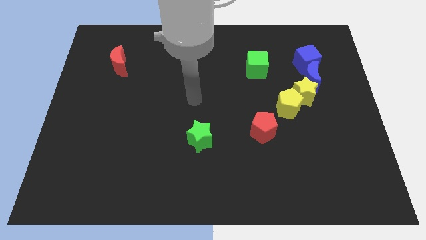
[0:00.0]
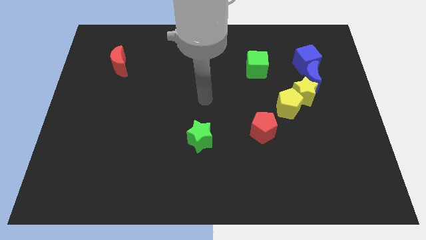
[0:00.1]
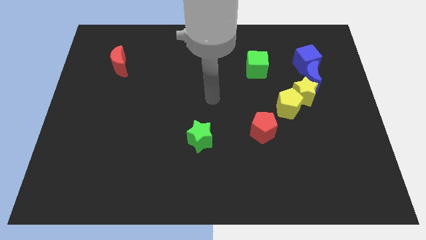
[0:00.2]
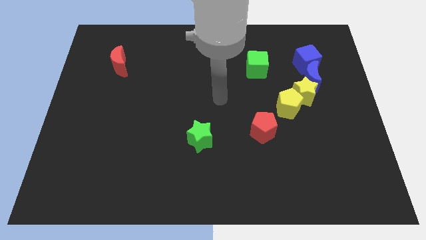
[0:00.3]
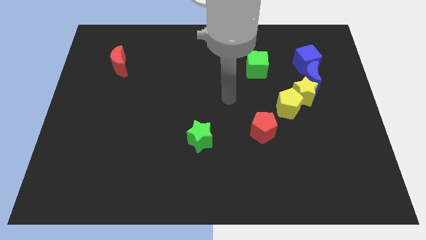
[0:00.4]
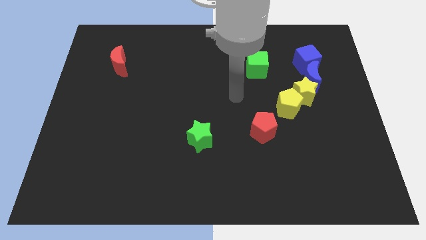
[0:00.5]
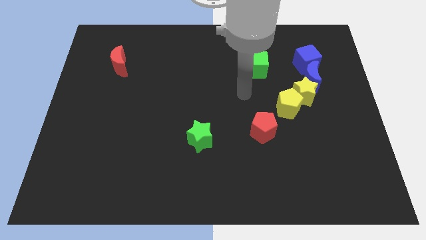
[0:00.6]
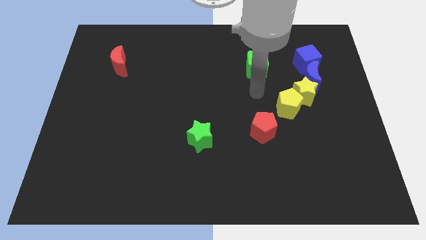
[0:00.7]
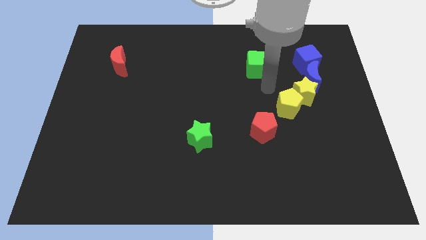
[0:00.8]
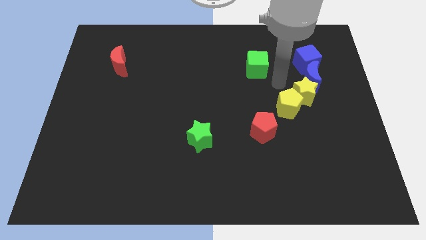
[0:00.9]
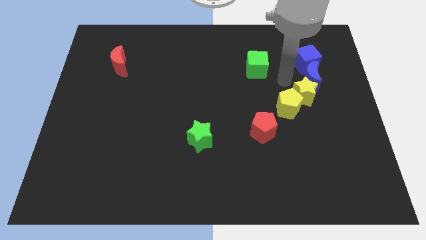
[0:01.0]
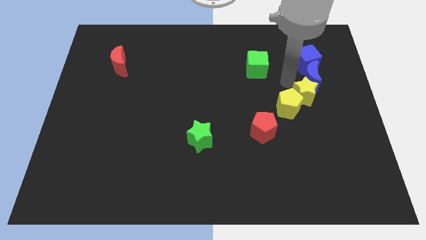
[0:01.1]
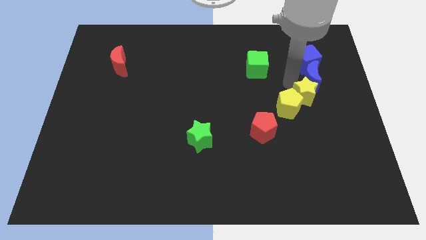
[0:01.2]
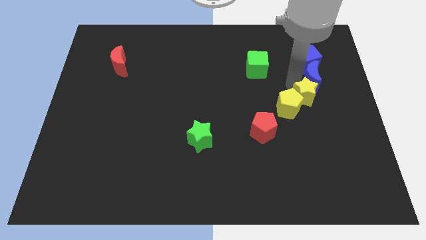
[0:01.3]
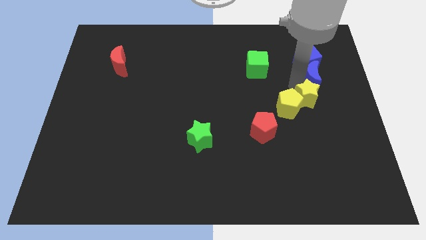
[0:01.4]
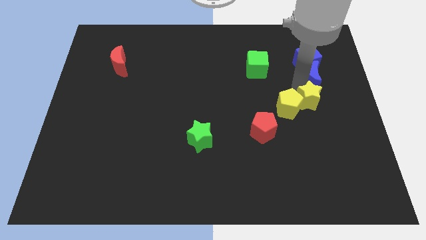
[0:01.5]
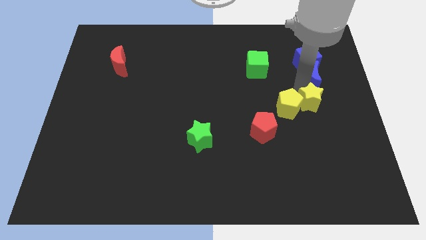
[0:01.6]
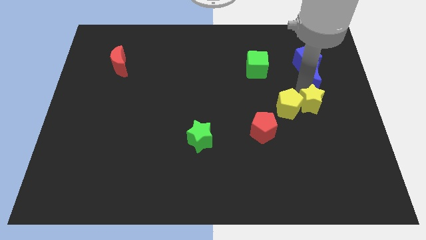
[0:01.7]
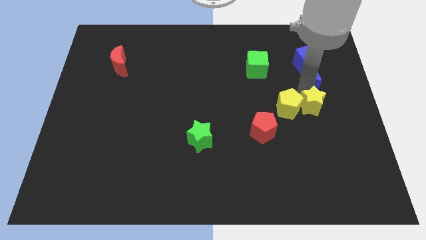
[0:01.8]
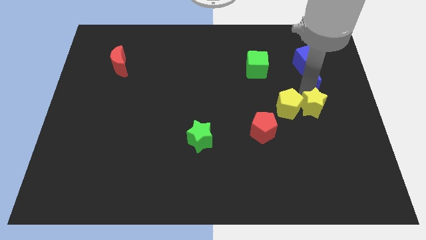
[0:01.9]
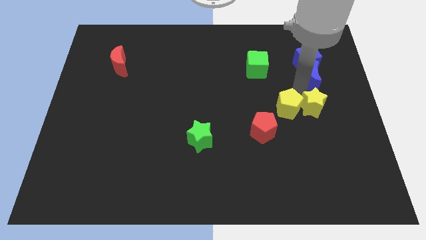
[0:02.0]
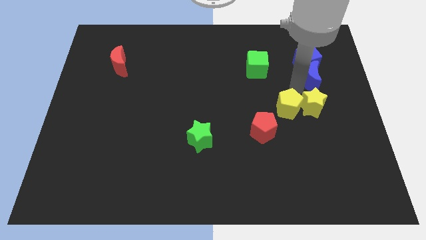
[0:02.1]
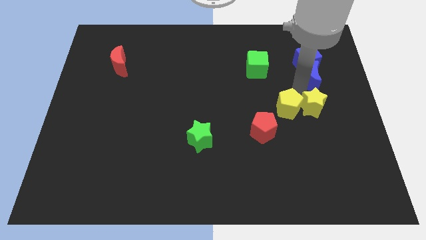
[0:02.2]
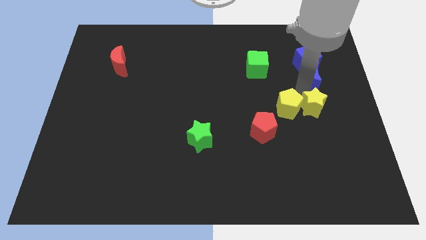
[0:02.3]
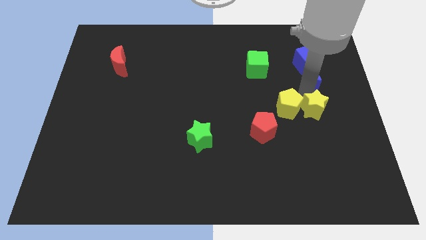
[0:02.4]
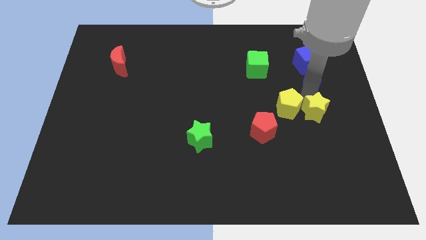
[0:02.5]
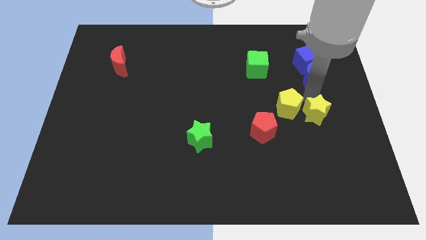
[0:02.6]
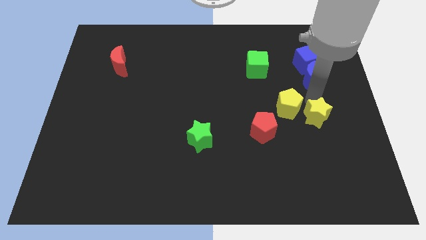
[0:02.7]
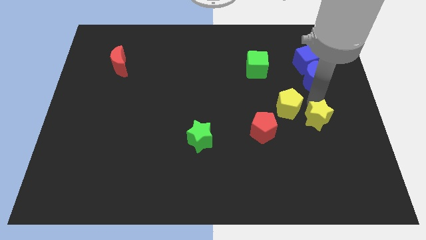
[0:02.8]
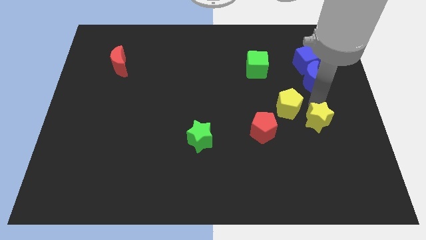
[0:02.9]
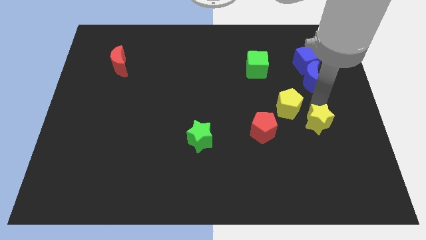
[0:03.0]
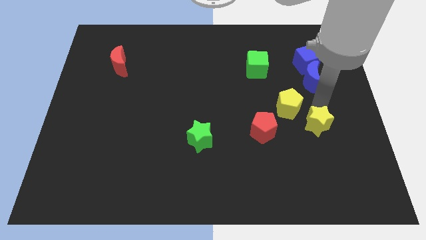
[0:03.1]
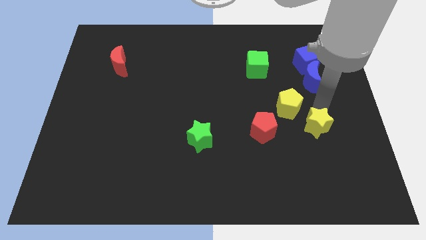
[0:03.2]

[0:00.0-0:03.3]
separate the yellow star from the yellow pentagon and blue moon

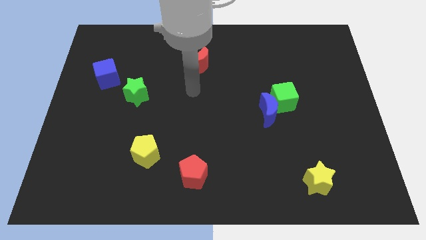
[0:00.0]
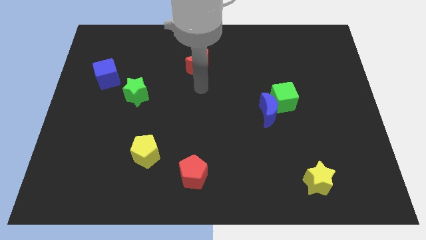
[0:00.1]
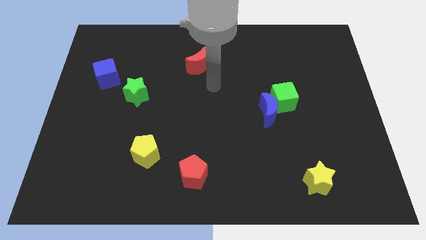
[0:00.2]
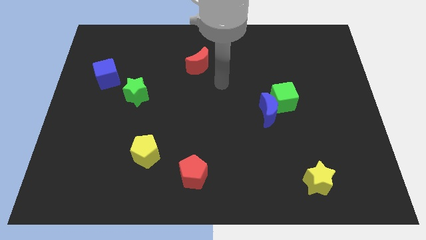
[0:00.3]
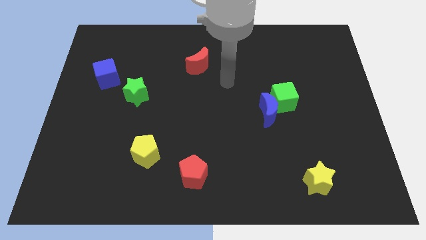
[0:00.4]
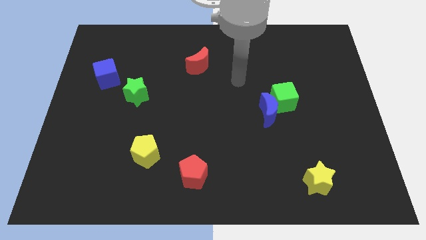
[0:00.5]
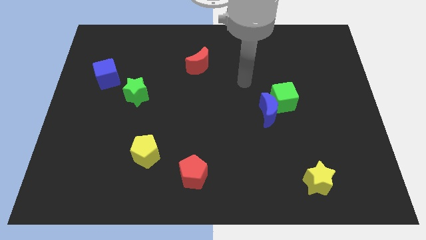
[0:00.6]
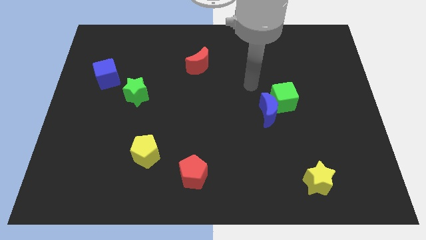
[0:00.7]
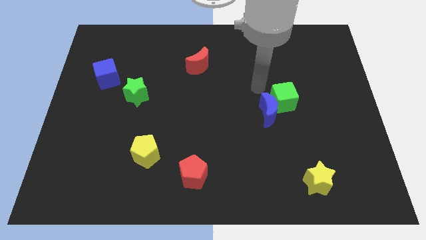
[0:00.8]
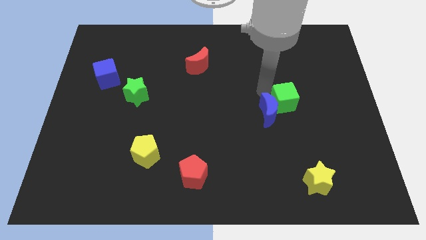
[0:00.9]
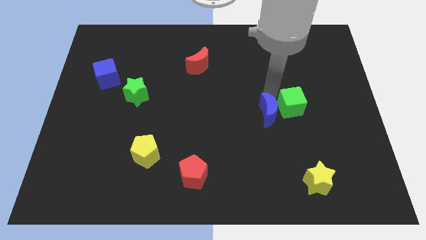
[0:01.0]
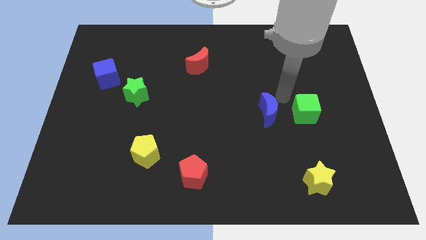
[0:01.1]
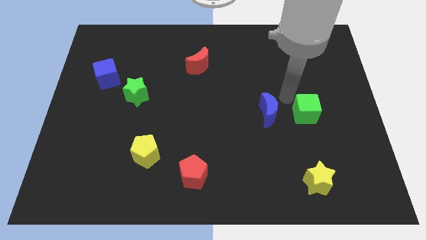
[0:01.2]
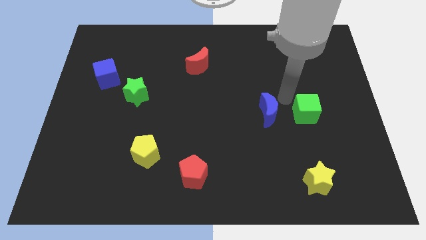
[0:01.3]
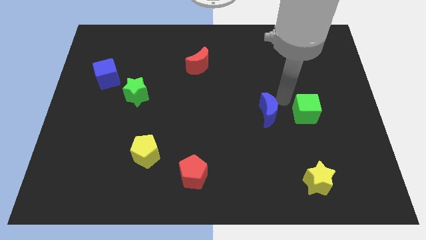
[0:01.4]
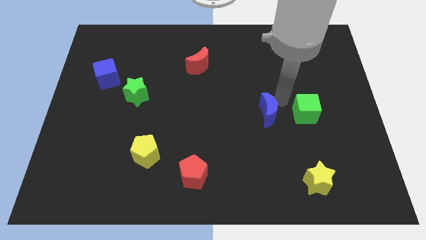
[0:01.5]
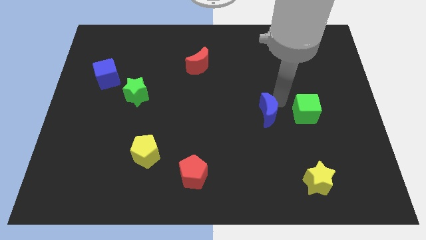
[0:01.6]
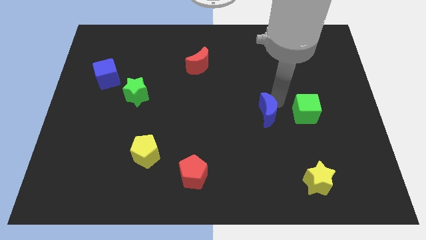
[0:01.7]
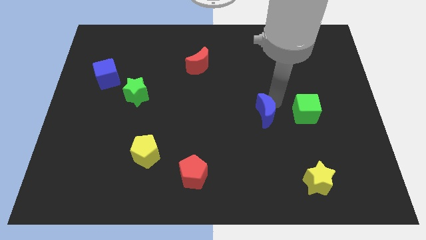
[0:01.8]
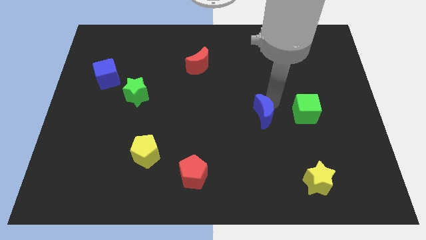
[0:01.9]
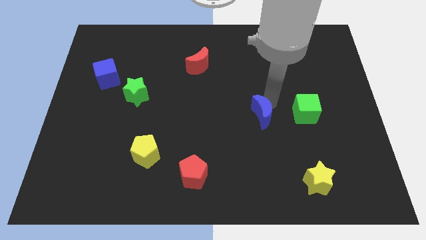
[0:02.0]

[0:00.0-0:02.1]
separate the blue moon from the green cube

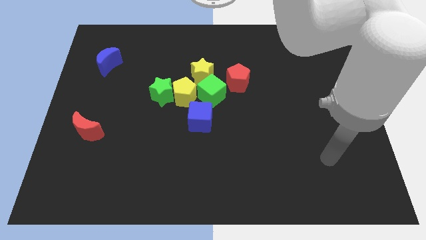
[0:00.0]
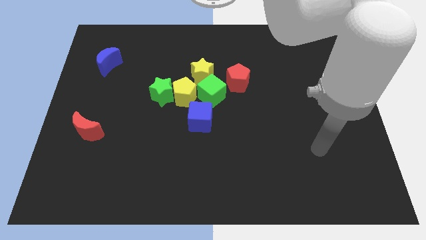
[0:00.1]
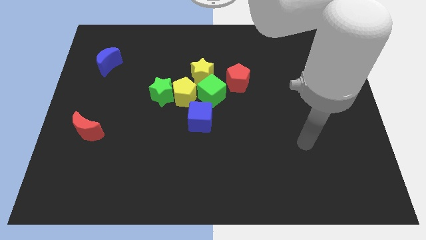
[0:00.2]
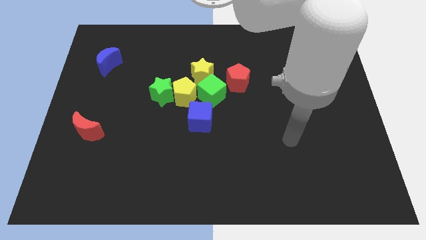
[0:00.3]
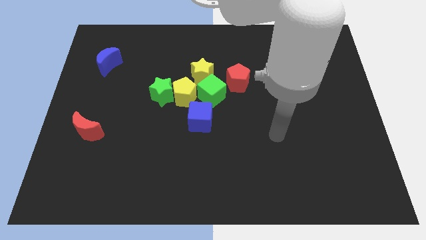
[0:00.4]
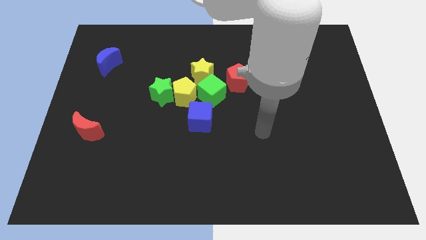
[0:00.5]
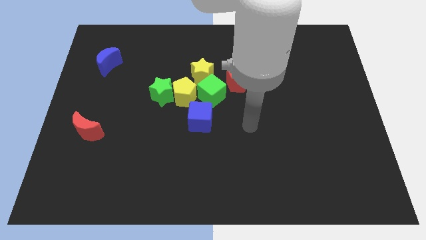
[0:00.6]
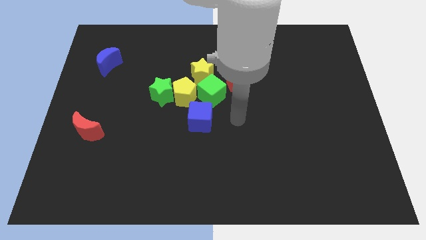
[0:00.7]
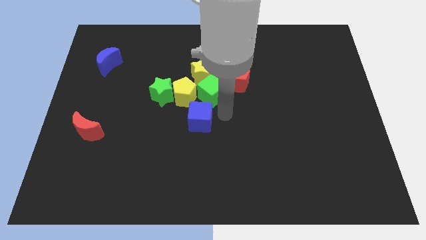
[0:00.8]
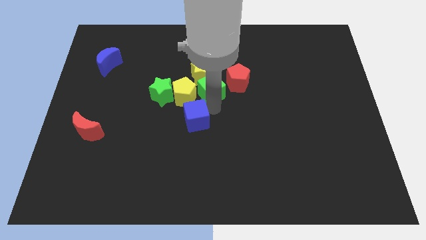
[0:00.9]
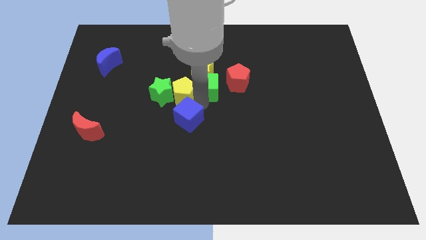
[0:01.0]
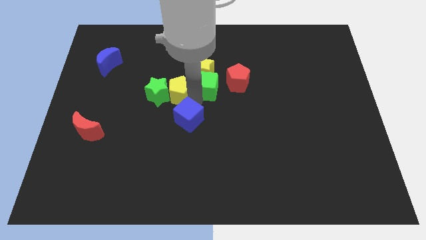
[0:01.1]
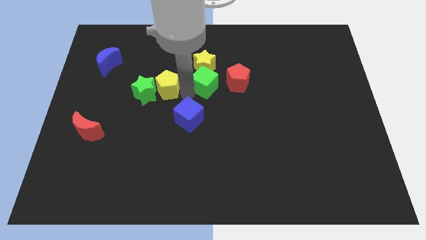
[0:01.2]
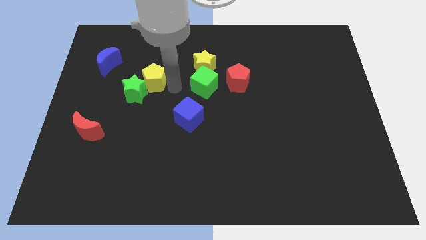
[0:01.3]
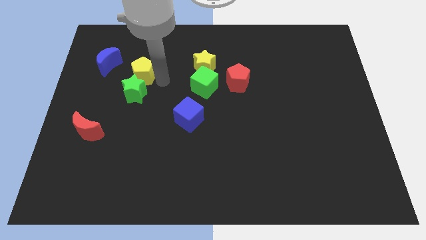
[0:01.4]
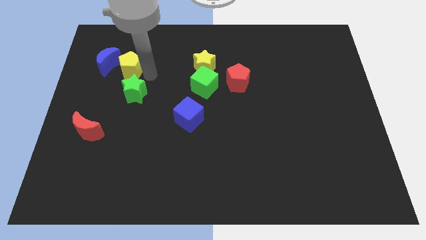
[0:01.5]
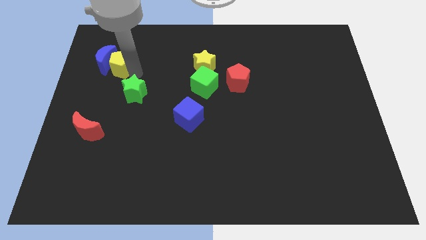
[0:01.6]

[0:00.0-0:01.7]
separate the green star from the yellow pentagon

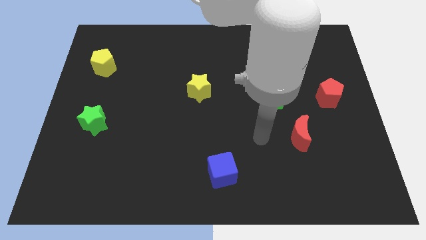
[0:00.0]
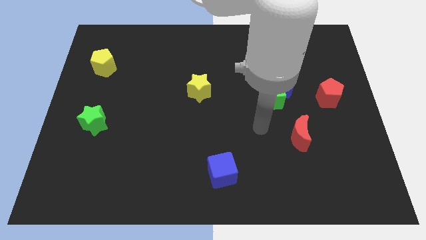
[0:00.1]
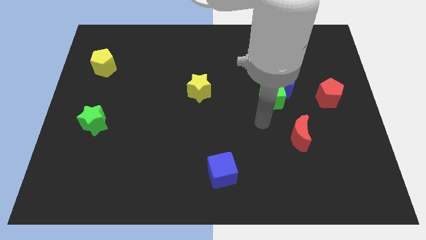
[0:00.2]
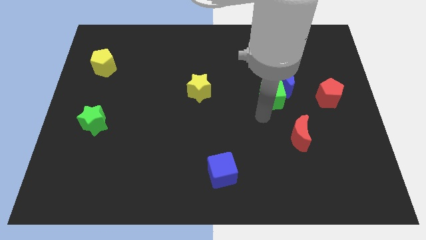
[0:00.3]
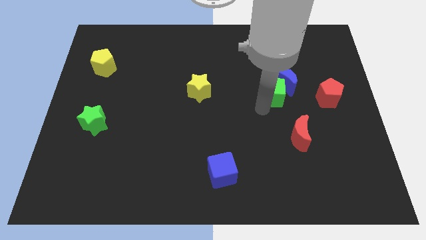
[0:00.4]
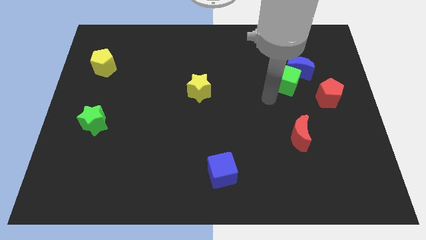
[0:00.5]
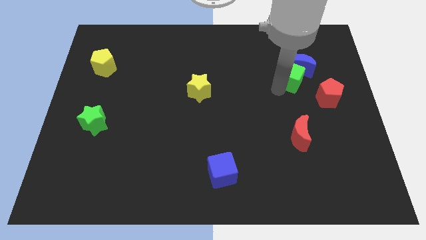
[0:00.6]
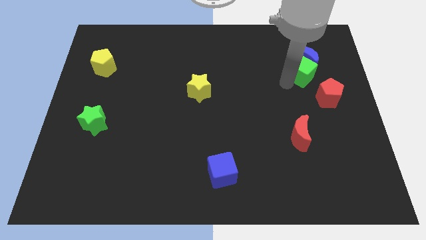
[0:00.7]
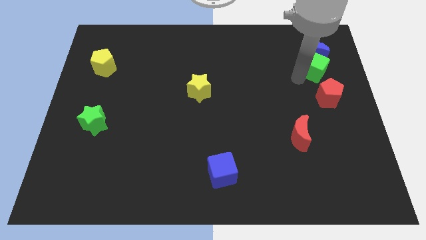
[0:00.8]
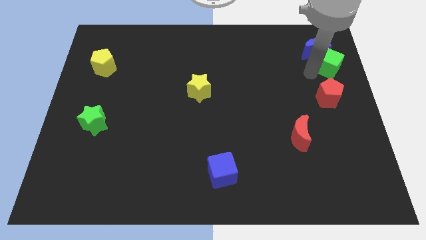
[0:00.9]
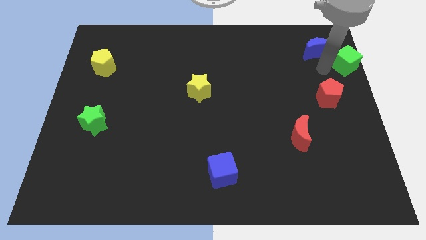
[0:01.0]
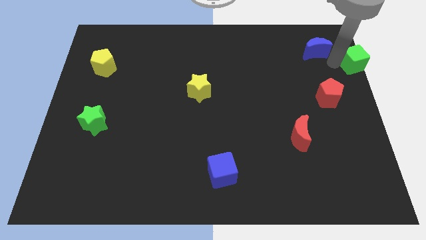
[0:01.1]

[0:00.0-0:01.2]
move the blue moon away from the green cube

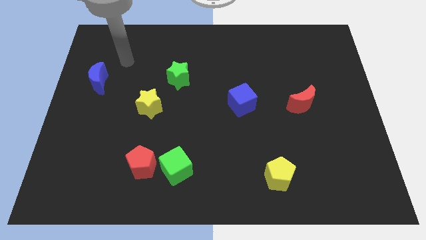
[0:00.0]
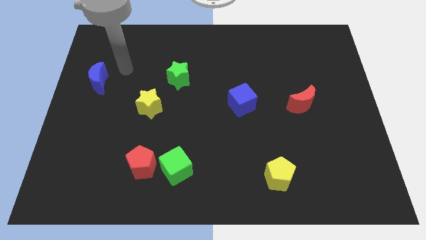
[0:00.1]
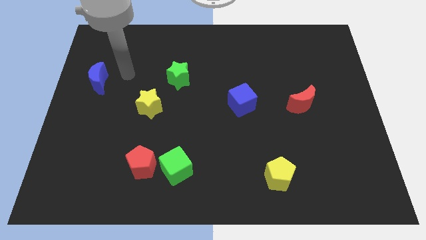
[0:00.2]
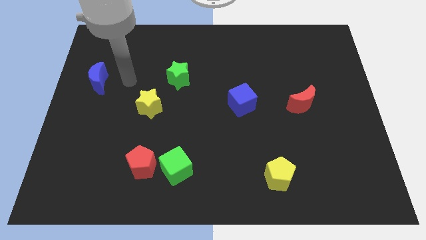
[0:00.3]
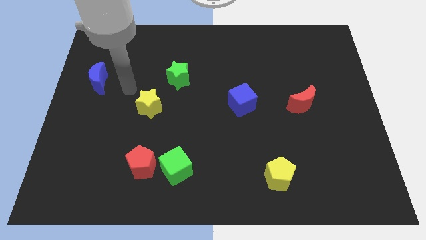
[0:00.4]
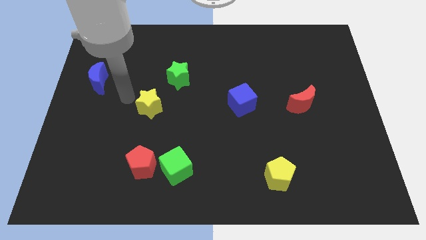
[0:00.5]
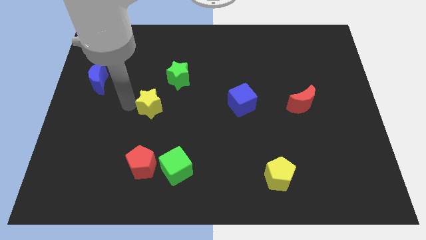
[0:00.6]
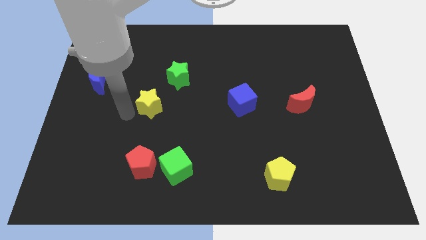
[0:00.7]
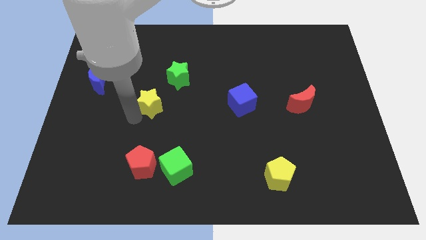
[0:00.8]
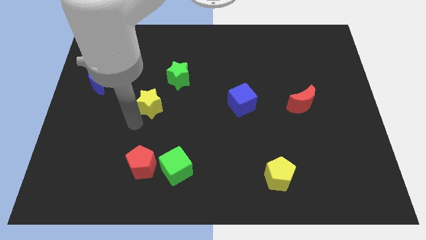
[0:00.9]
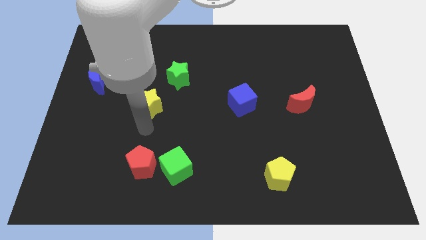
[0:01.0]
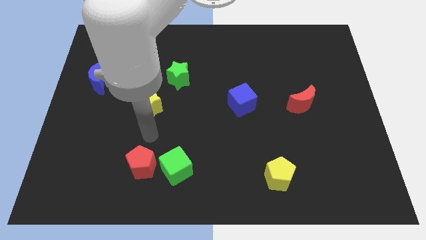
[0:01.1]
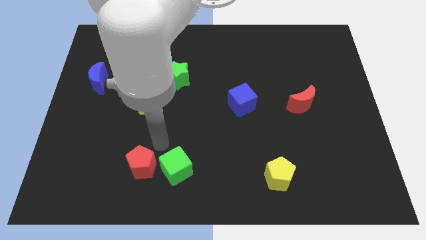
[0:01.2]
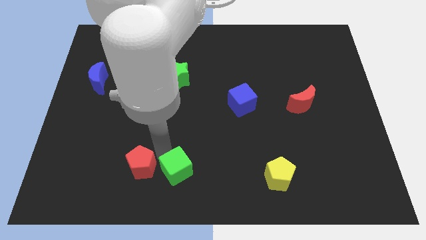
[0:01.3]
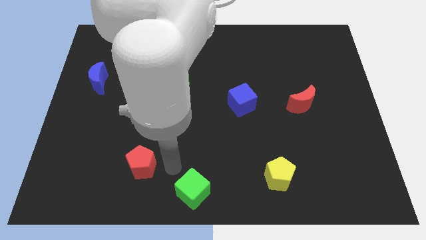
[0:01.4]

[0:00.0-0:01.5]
separate the red pentagon from the green cube
